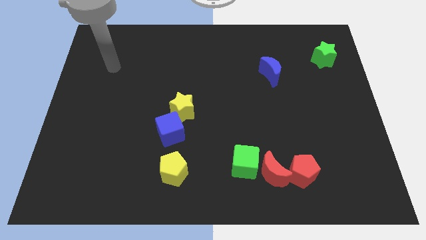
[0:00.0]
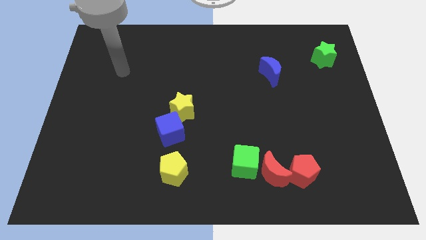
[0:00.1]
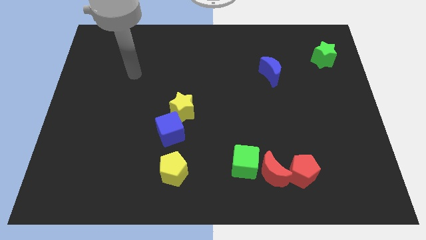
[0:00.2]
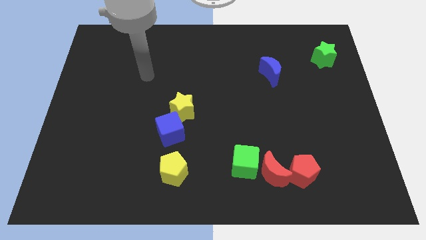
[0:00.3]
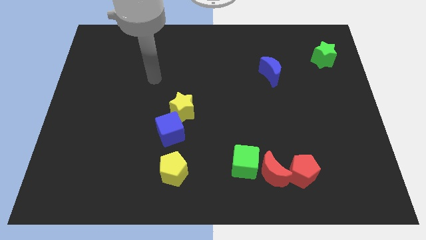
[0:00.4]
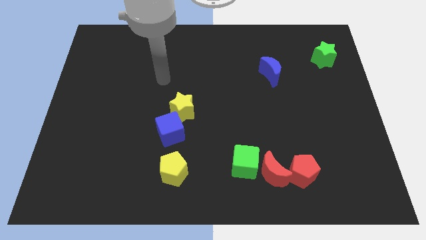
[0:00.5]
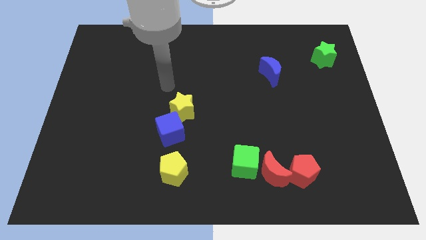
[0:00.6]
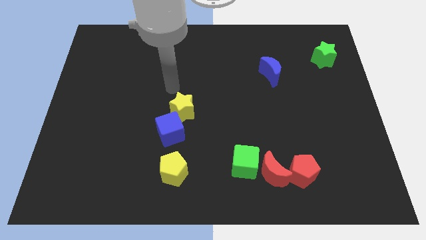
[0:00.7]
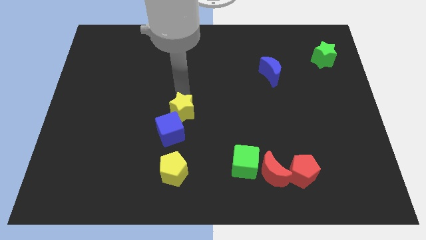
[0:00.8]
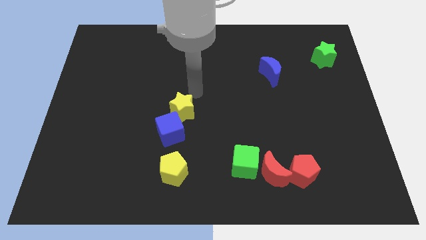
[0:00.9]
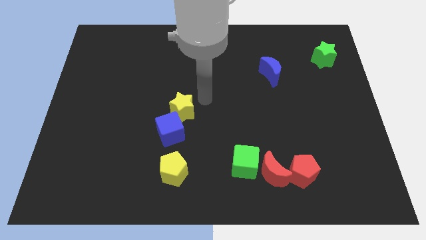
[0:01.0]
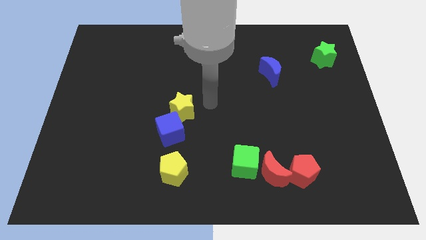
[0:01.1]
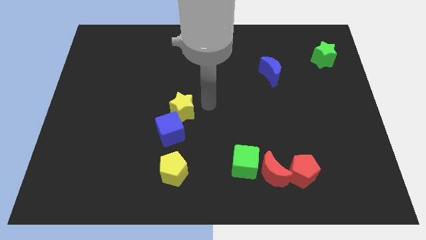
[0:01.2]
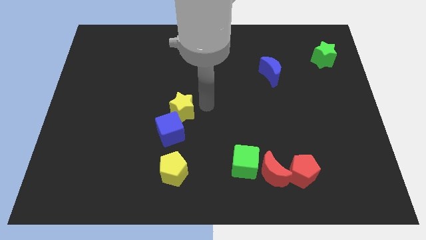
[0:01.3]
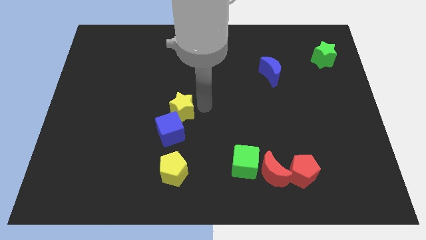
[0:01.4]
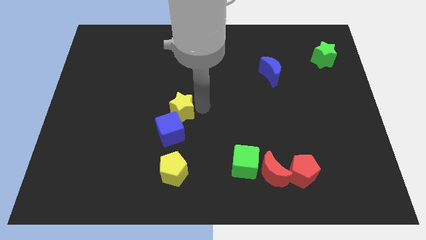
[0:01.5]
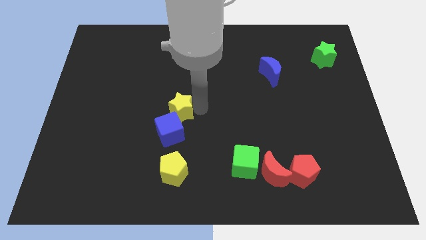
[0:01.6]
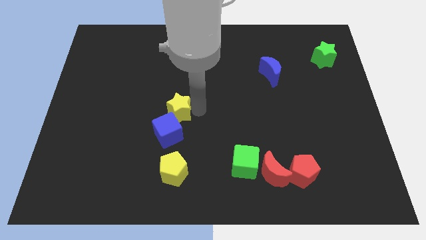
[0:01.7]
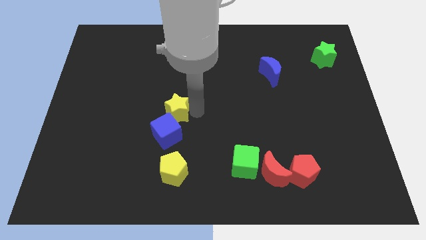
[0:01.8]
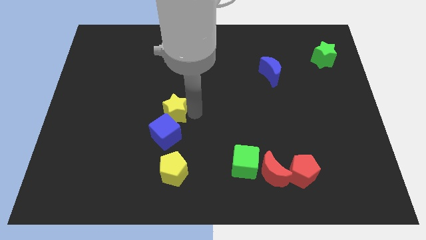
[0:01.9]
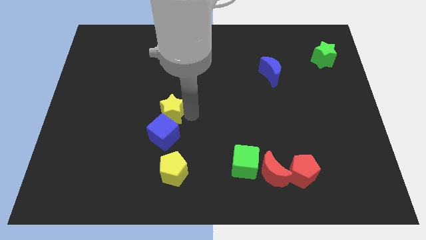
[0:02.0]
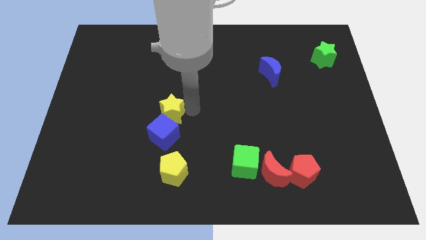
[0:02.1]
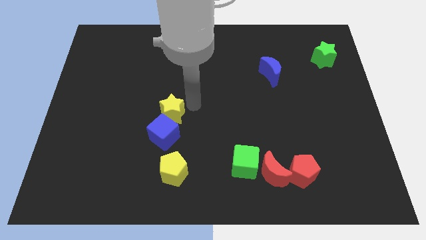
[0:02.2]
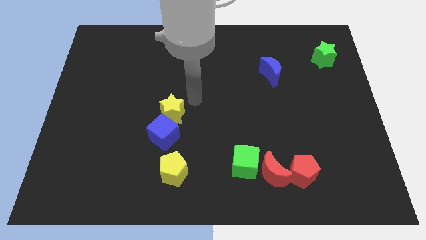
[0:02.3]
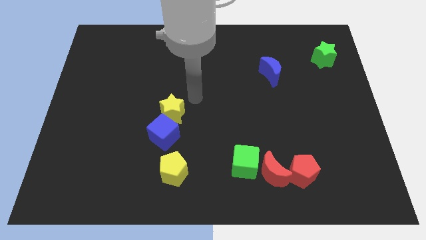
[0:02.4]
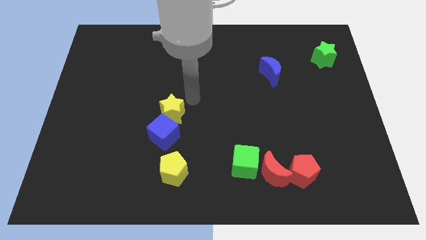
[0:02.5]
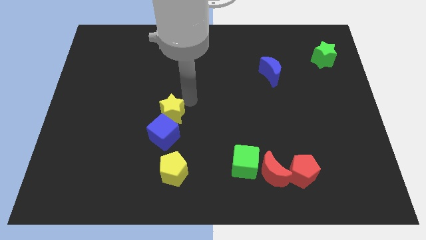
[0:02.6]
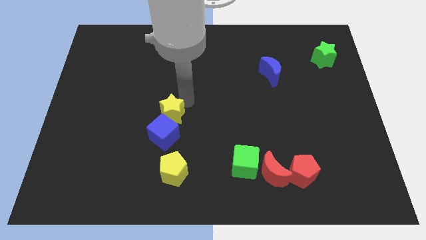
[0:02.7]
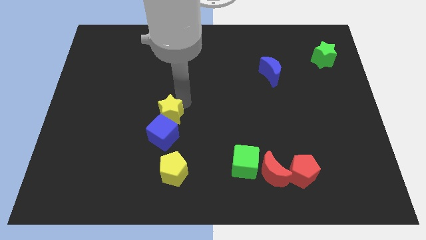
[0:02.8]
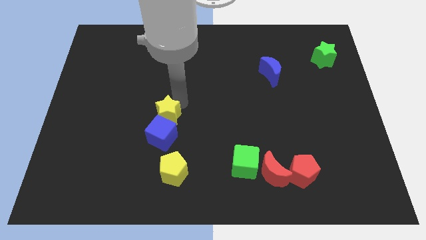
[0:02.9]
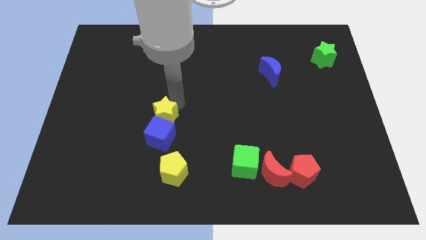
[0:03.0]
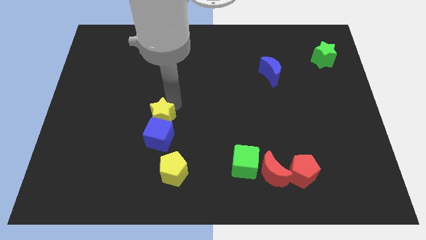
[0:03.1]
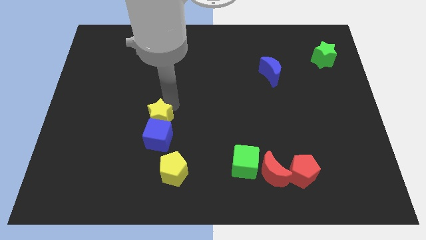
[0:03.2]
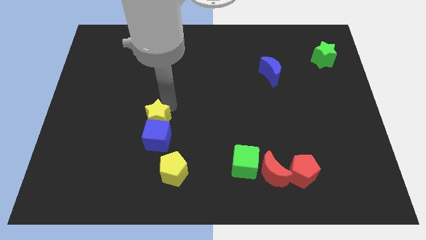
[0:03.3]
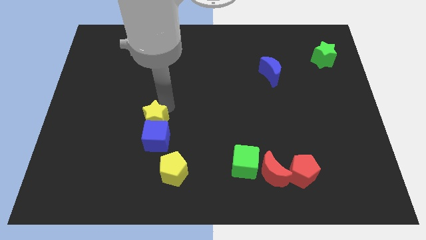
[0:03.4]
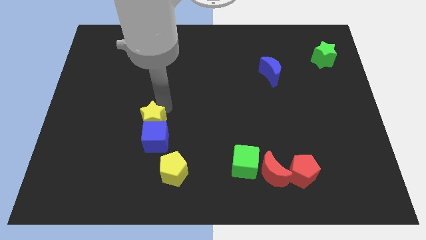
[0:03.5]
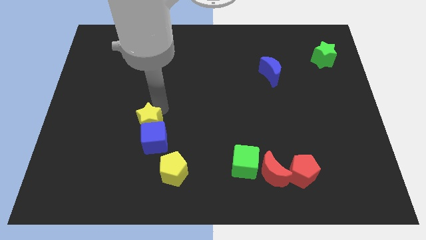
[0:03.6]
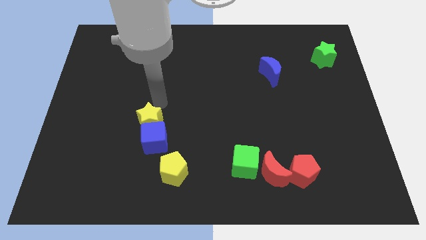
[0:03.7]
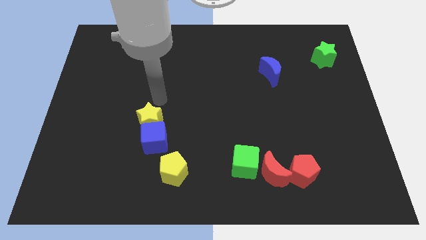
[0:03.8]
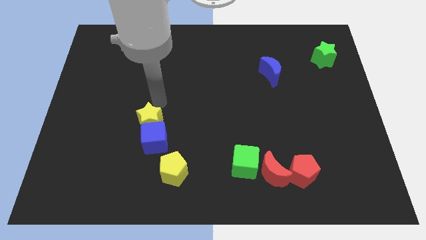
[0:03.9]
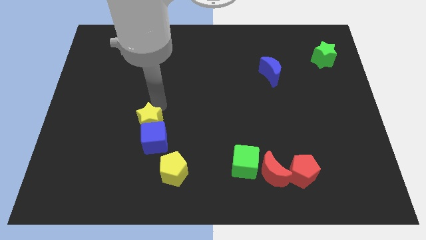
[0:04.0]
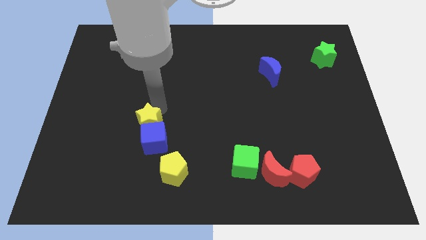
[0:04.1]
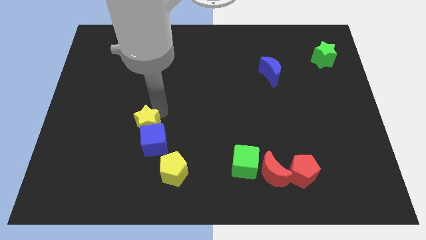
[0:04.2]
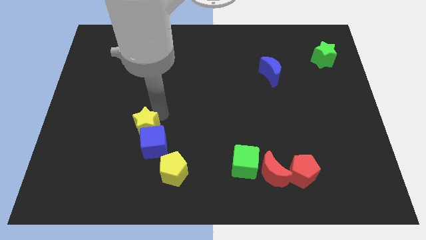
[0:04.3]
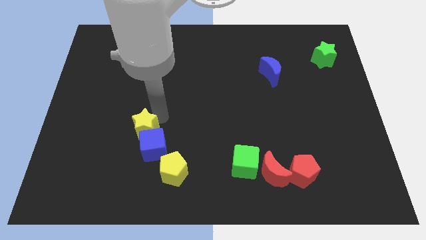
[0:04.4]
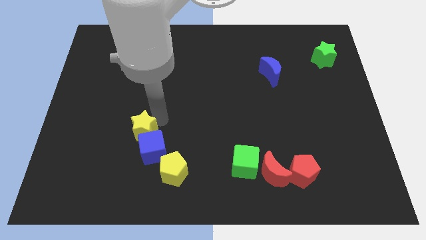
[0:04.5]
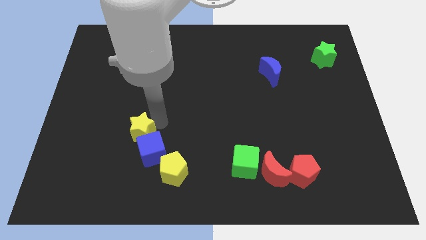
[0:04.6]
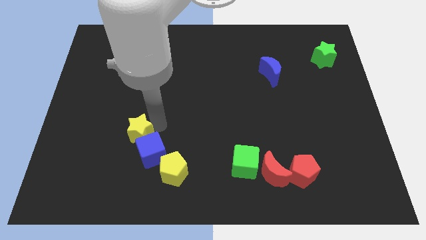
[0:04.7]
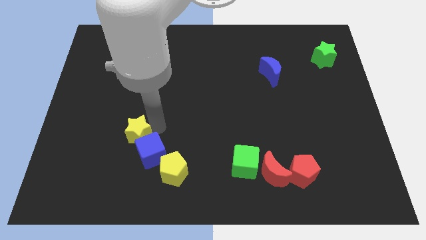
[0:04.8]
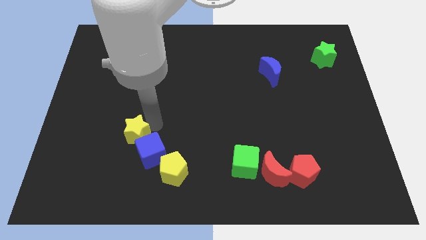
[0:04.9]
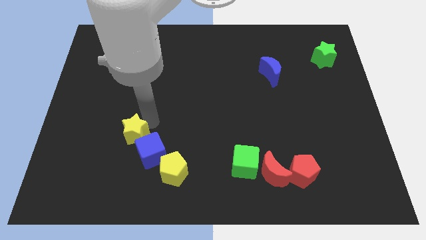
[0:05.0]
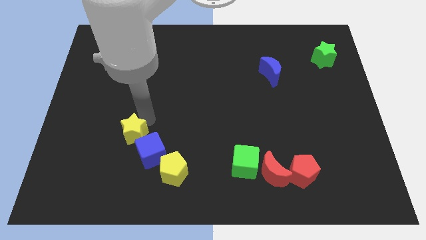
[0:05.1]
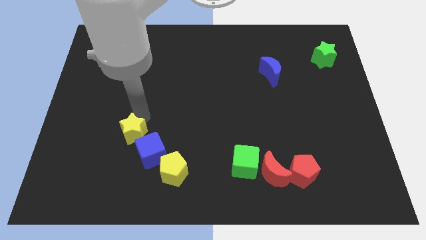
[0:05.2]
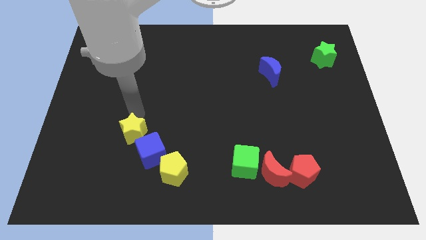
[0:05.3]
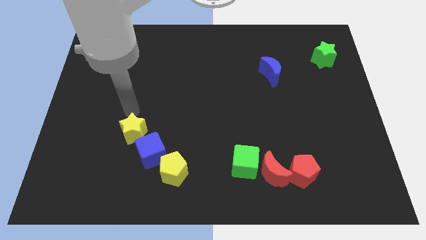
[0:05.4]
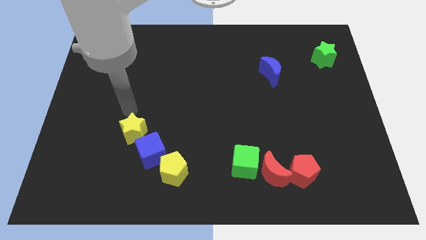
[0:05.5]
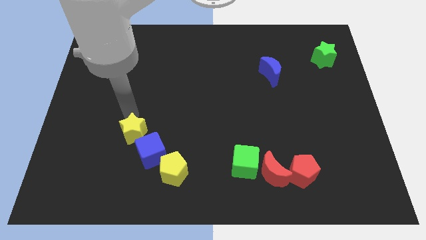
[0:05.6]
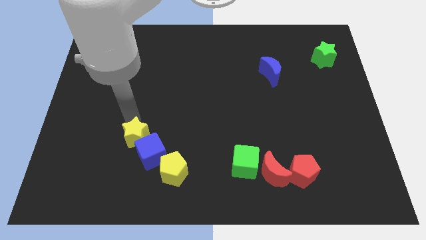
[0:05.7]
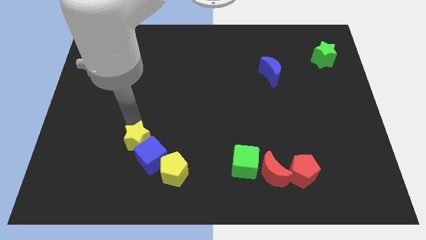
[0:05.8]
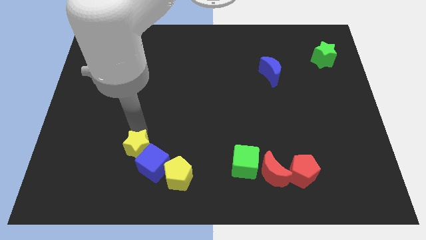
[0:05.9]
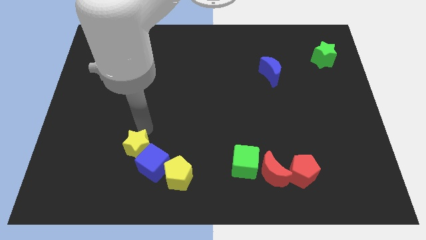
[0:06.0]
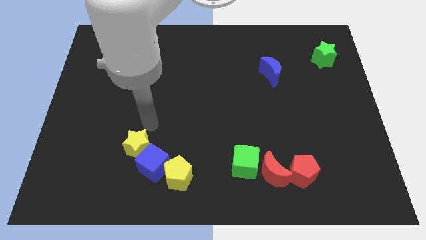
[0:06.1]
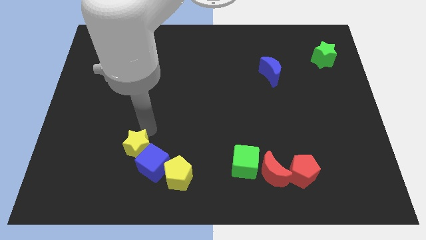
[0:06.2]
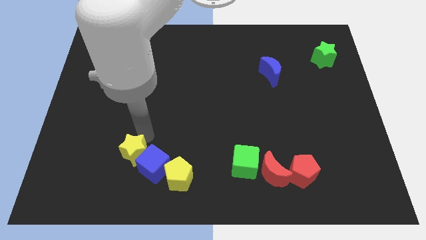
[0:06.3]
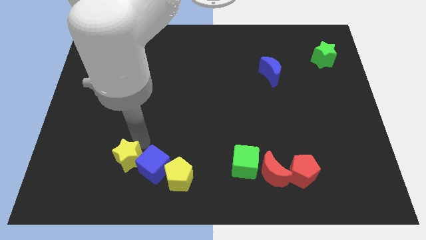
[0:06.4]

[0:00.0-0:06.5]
move the yellow star left of the yellow pentagon

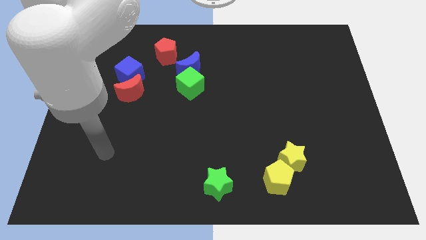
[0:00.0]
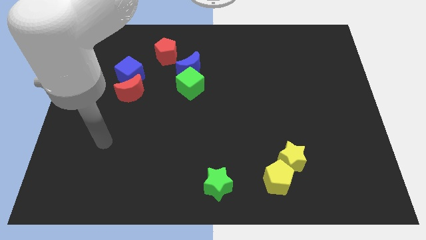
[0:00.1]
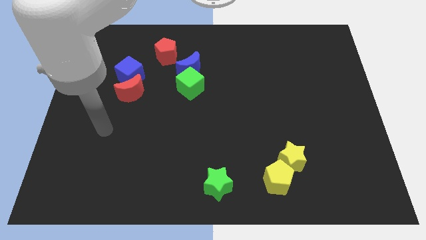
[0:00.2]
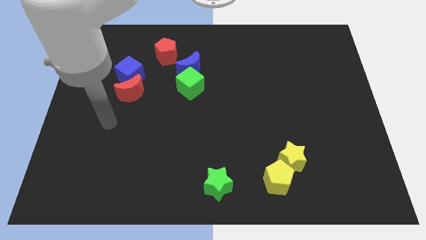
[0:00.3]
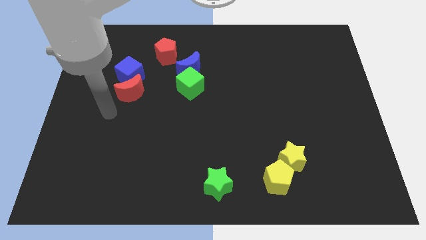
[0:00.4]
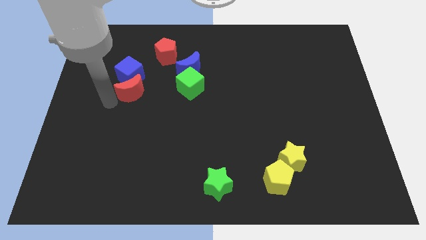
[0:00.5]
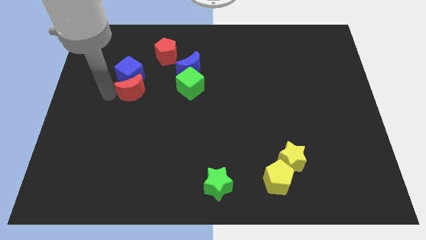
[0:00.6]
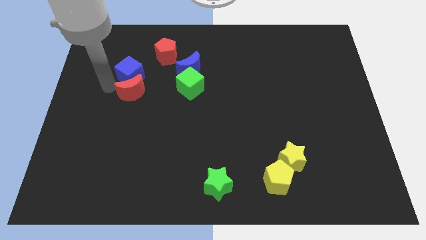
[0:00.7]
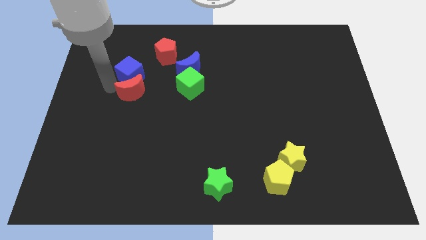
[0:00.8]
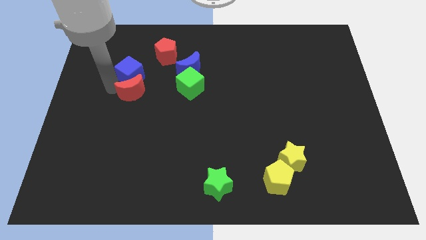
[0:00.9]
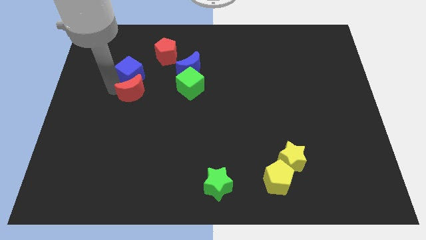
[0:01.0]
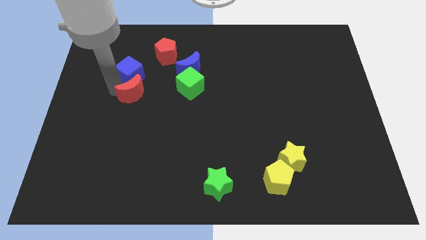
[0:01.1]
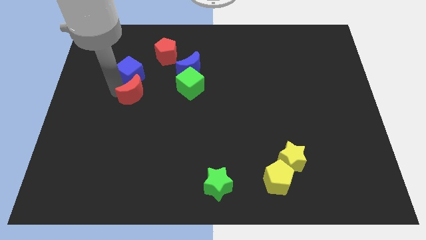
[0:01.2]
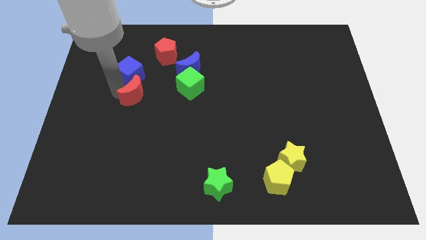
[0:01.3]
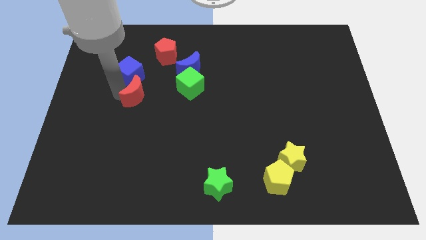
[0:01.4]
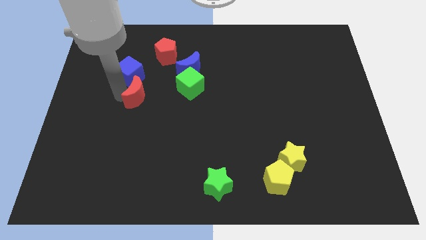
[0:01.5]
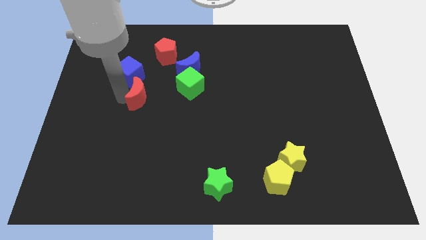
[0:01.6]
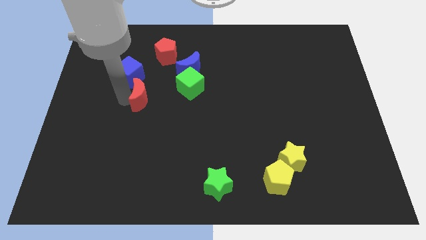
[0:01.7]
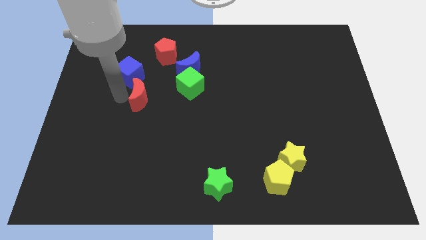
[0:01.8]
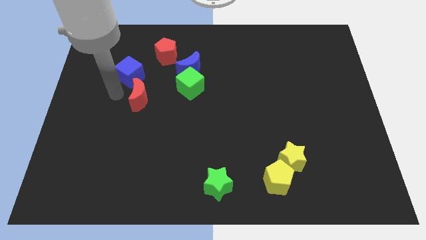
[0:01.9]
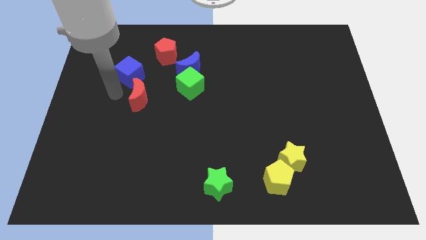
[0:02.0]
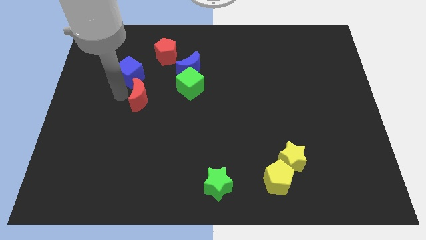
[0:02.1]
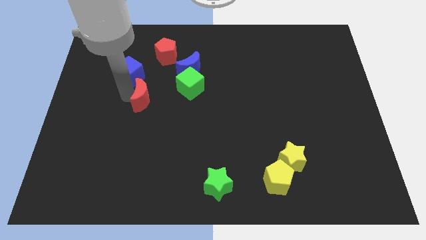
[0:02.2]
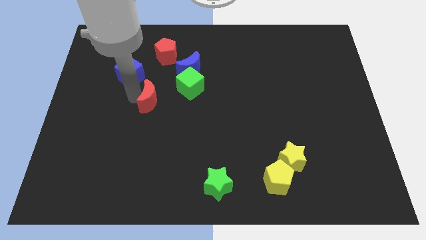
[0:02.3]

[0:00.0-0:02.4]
slide the red moon diagonally down and to the left of the green cube
